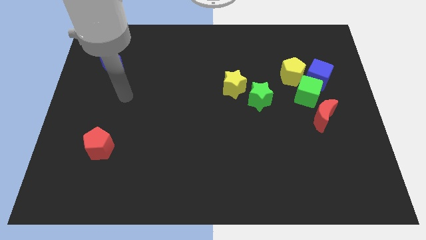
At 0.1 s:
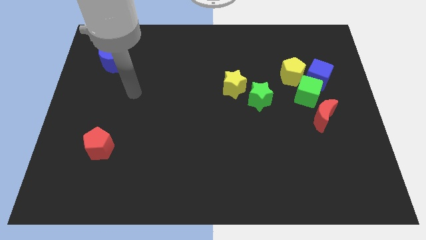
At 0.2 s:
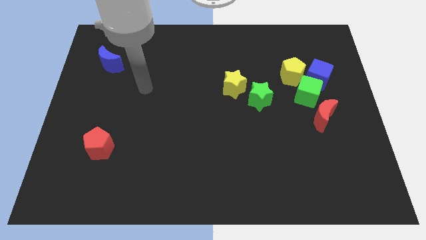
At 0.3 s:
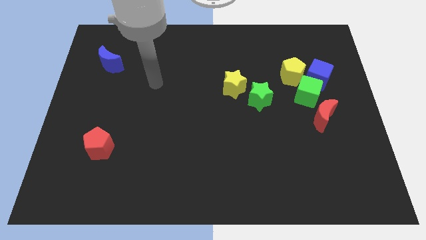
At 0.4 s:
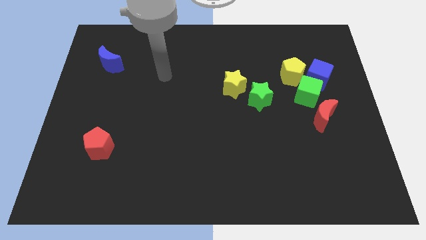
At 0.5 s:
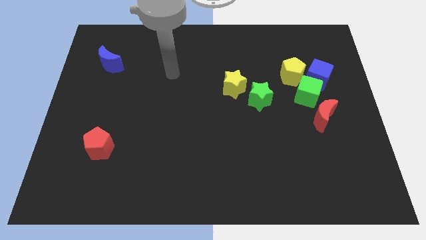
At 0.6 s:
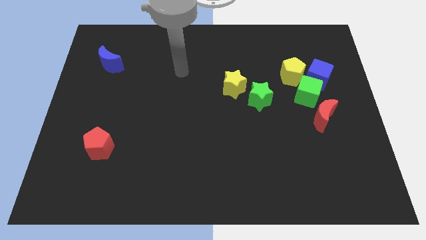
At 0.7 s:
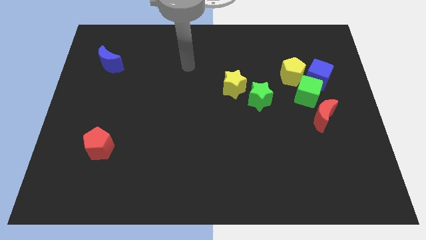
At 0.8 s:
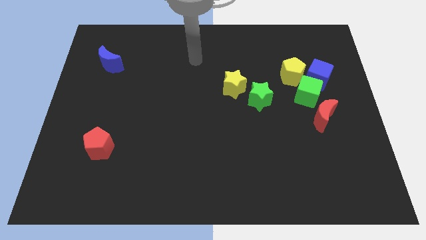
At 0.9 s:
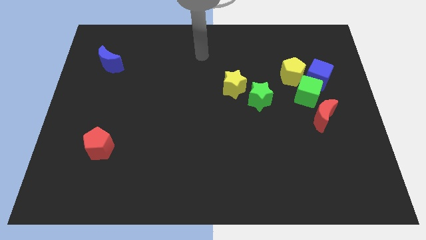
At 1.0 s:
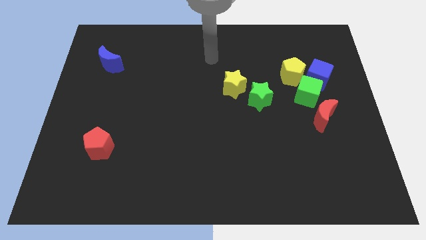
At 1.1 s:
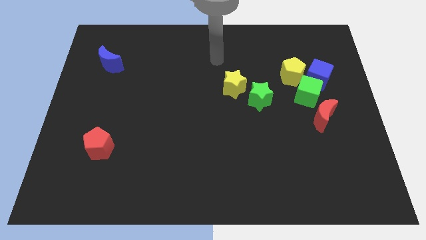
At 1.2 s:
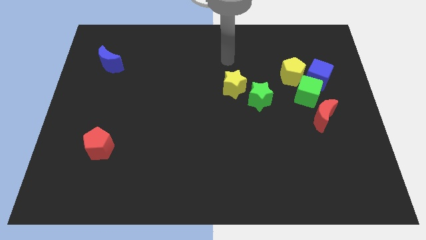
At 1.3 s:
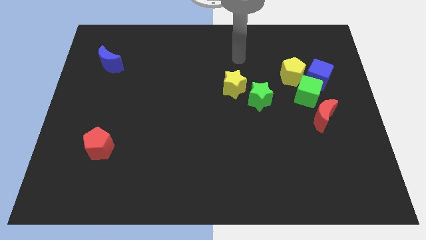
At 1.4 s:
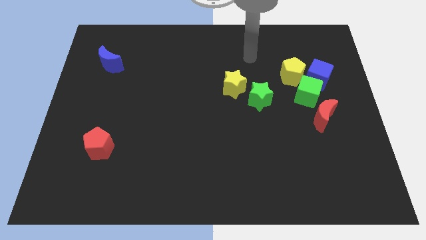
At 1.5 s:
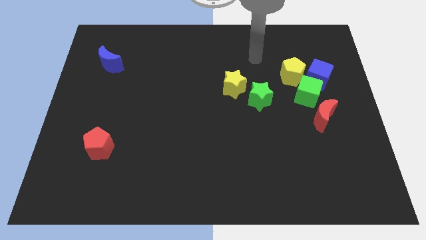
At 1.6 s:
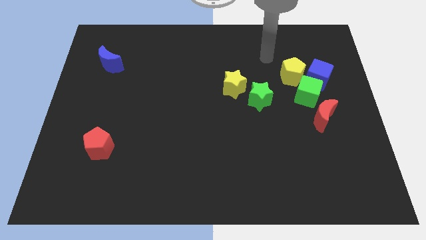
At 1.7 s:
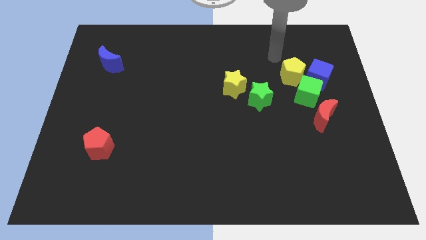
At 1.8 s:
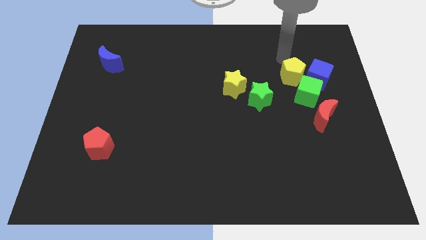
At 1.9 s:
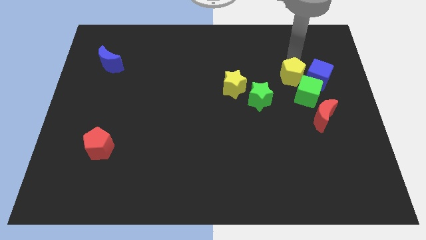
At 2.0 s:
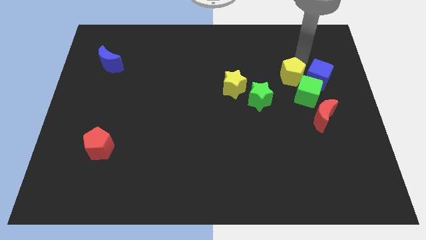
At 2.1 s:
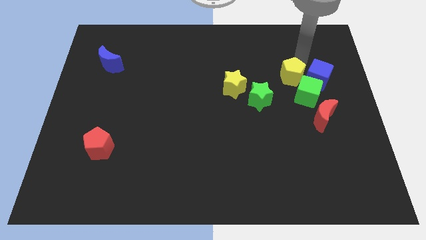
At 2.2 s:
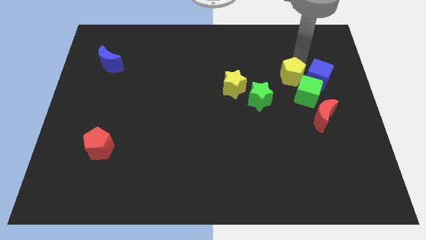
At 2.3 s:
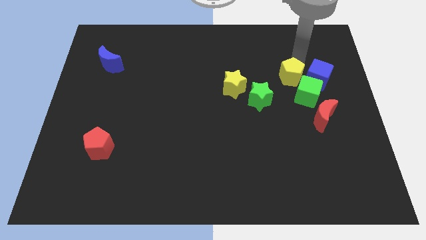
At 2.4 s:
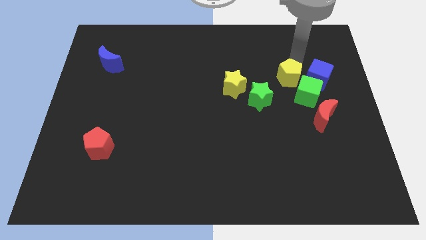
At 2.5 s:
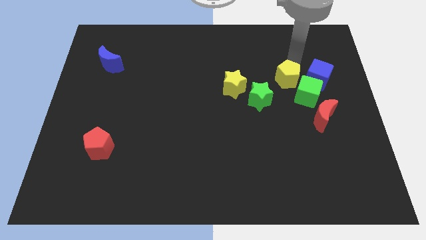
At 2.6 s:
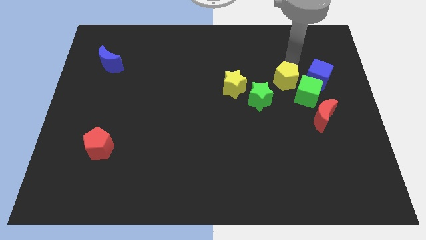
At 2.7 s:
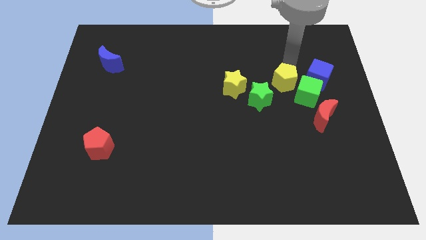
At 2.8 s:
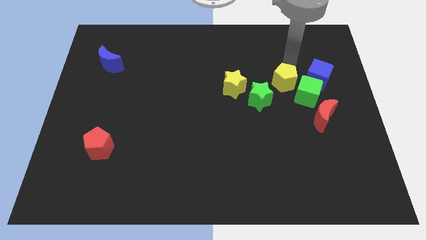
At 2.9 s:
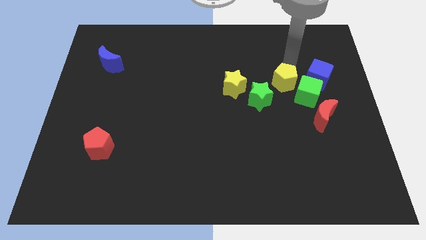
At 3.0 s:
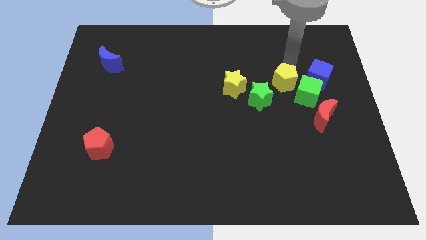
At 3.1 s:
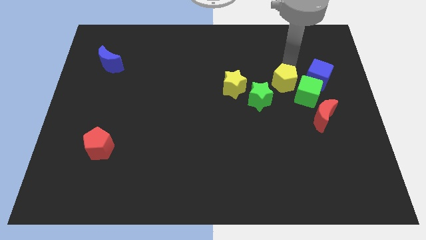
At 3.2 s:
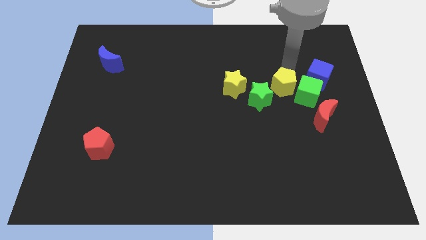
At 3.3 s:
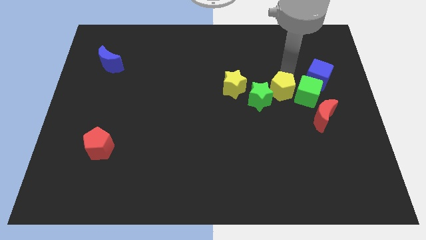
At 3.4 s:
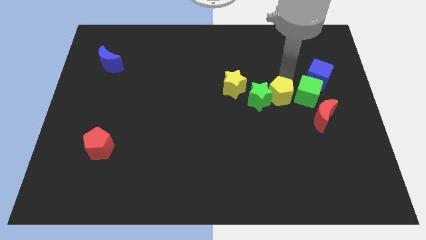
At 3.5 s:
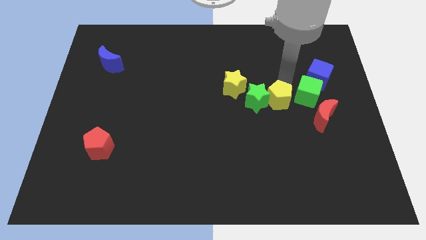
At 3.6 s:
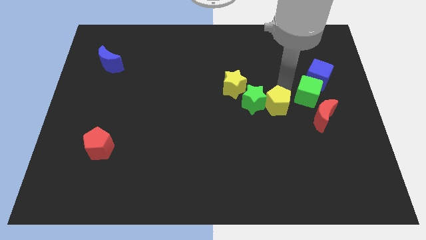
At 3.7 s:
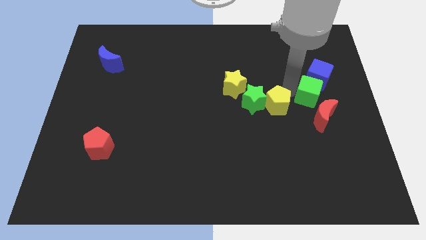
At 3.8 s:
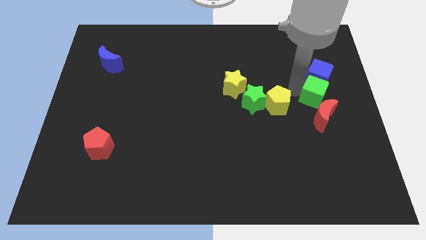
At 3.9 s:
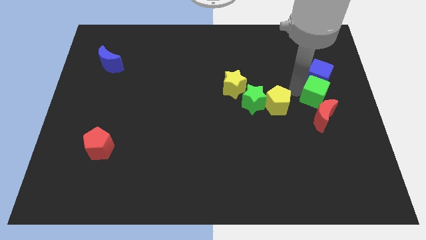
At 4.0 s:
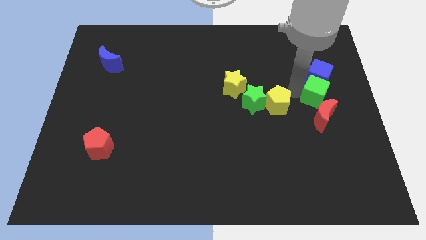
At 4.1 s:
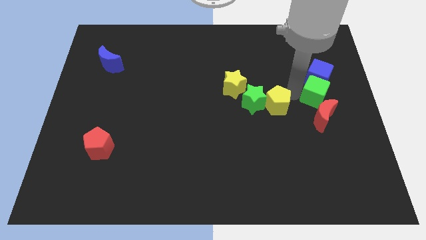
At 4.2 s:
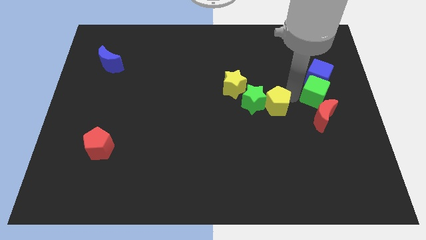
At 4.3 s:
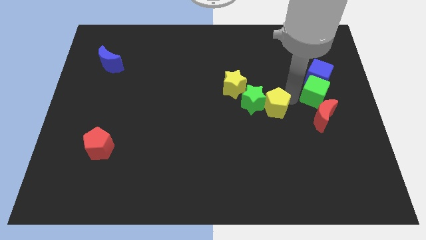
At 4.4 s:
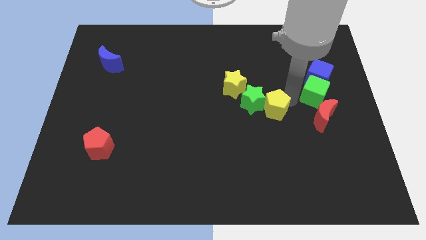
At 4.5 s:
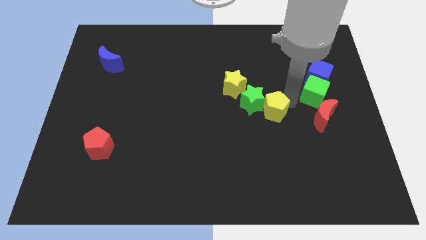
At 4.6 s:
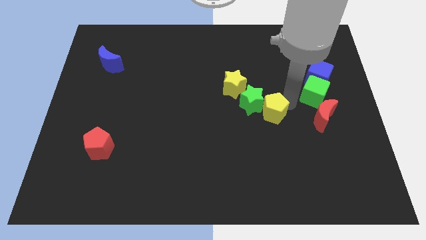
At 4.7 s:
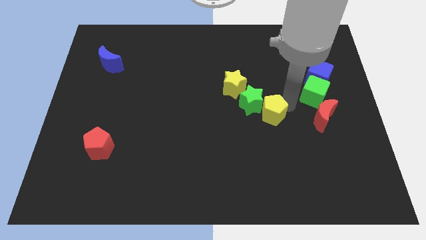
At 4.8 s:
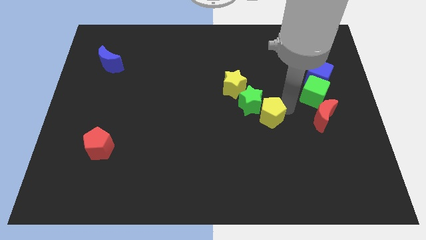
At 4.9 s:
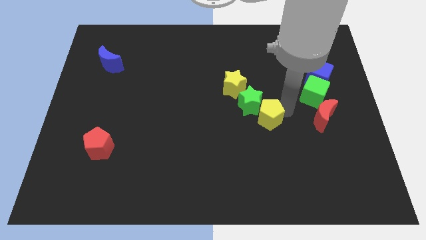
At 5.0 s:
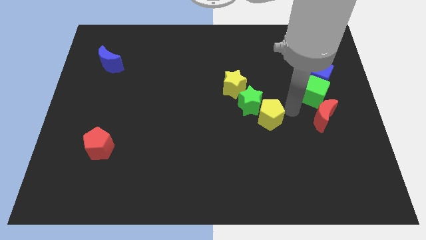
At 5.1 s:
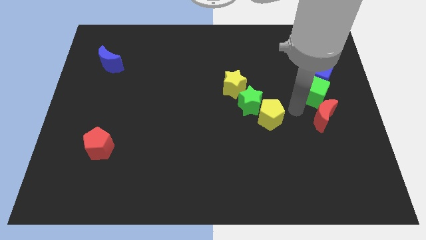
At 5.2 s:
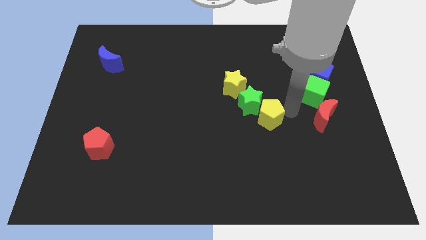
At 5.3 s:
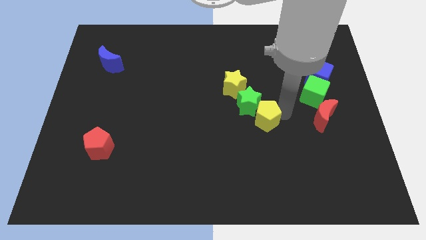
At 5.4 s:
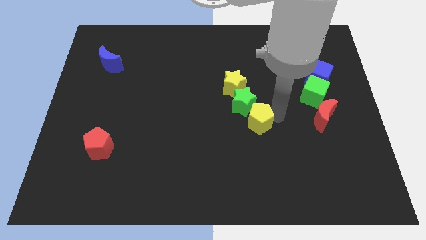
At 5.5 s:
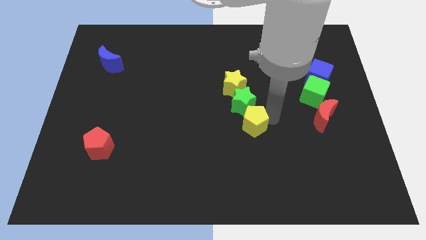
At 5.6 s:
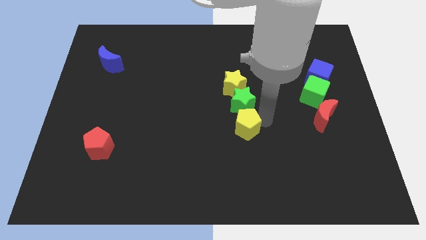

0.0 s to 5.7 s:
move the yellow pentagon down and left

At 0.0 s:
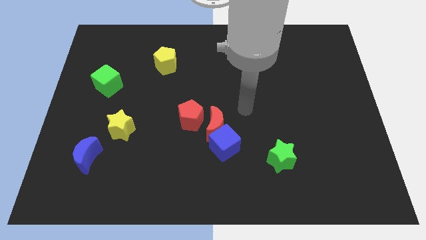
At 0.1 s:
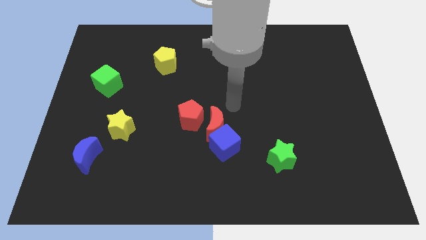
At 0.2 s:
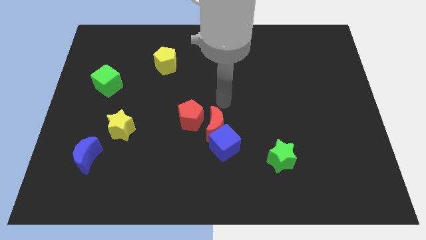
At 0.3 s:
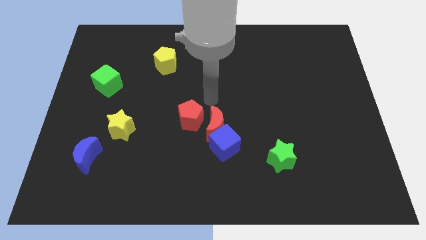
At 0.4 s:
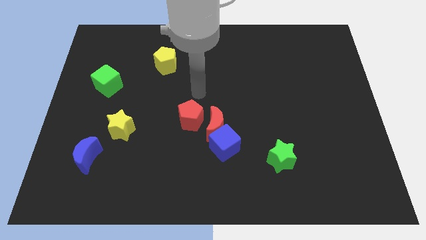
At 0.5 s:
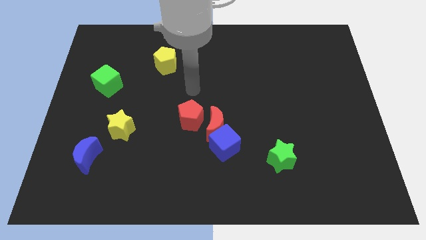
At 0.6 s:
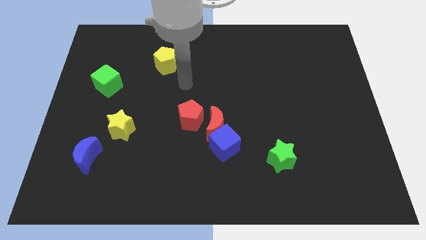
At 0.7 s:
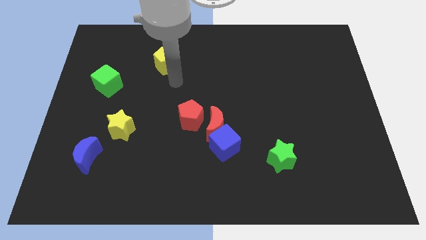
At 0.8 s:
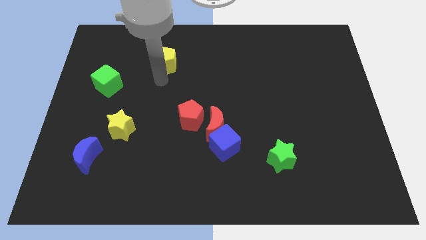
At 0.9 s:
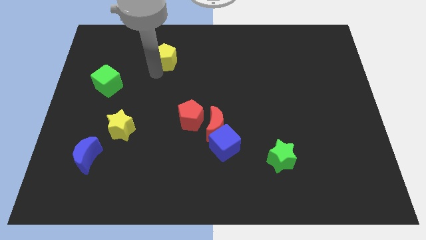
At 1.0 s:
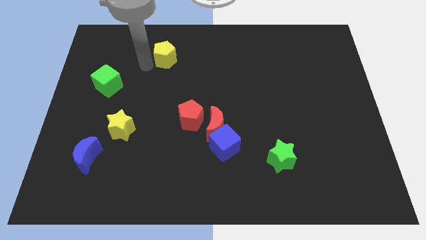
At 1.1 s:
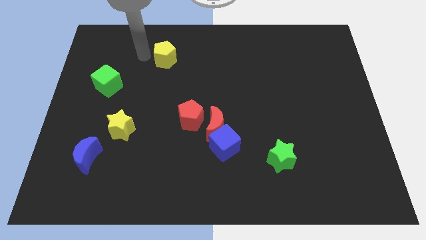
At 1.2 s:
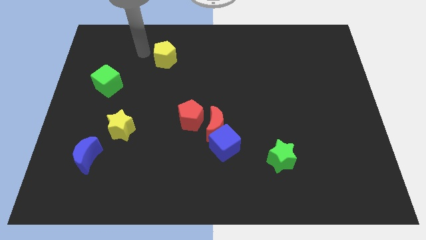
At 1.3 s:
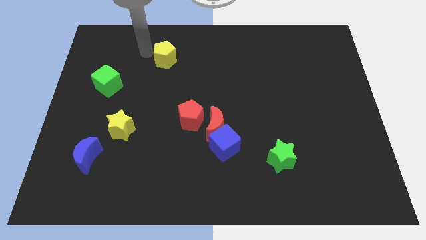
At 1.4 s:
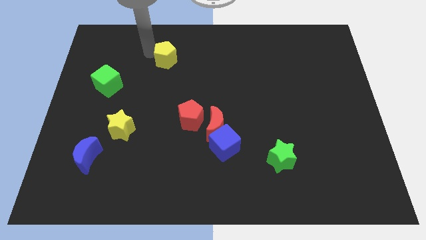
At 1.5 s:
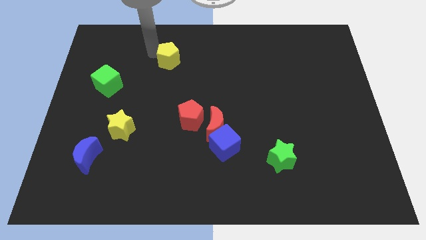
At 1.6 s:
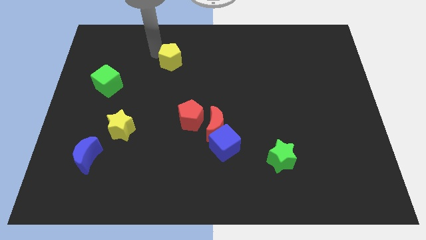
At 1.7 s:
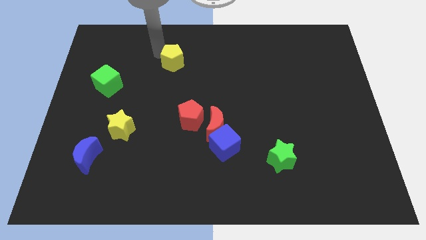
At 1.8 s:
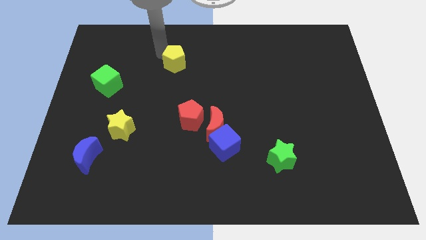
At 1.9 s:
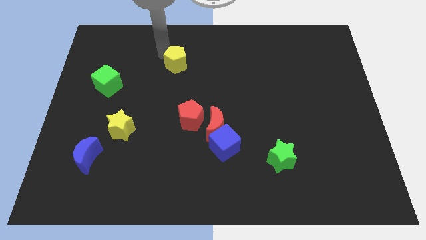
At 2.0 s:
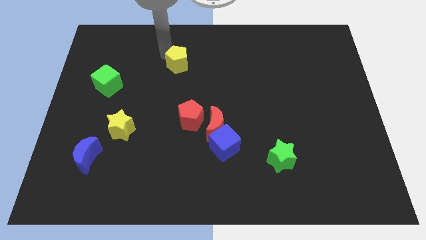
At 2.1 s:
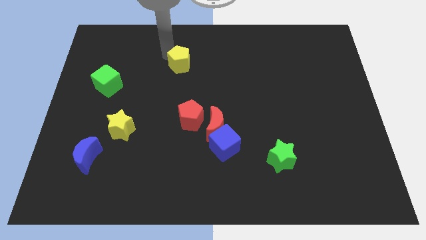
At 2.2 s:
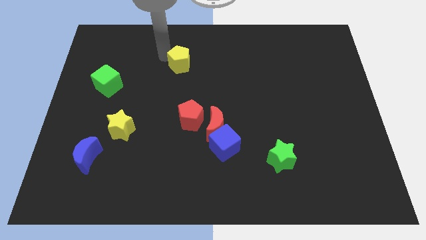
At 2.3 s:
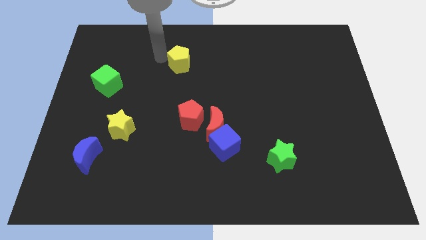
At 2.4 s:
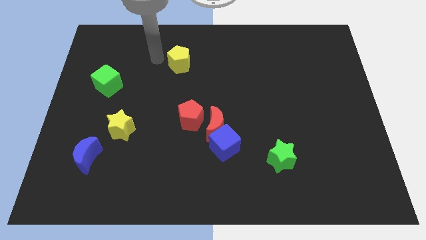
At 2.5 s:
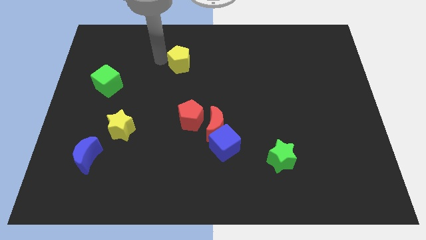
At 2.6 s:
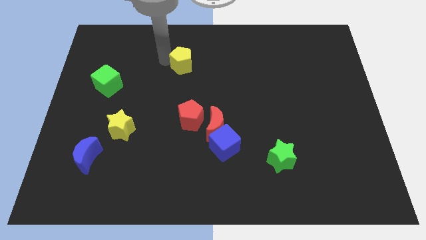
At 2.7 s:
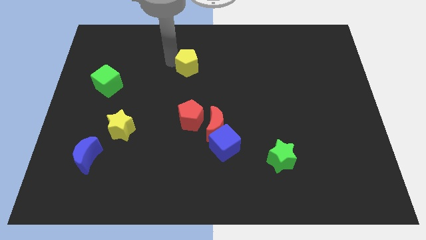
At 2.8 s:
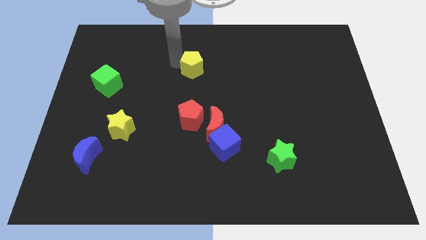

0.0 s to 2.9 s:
slightly push the yellow pentagon to the right
